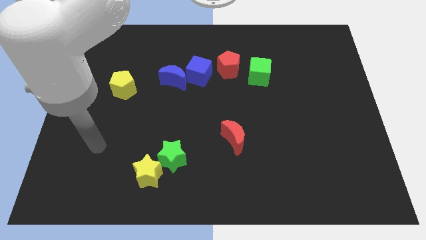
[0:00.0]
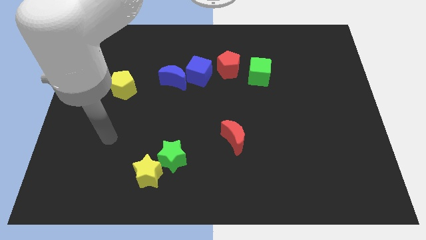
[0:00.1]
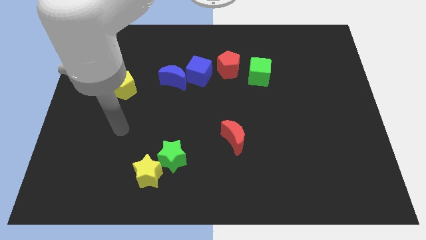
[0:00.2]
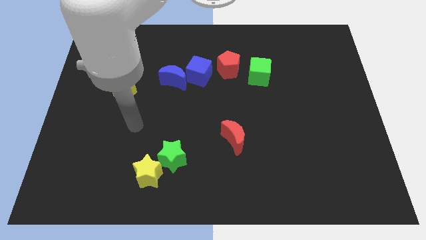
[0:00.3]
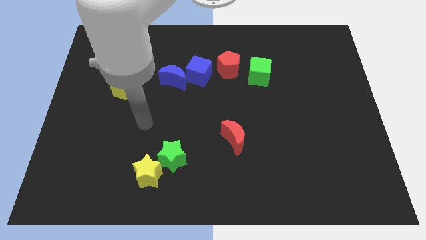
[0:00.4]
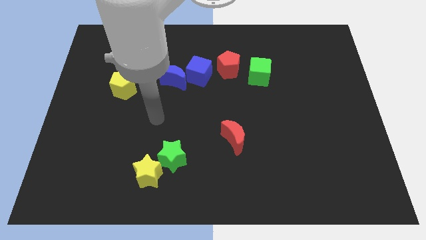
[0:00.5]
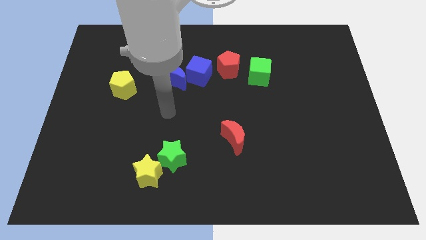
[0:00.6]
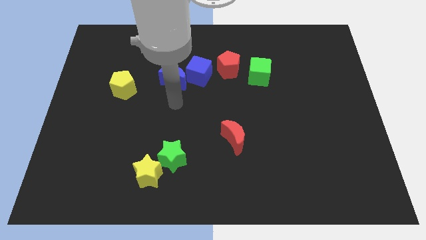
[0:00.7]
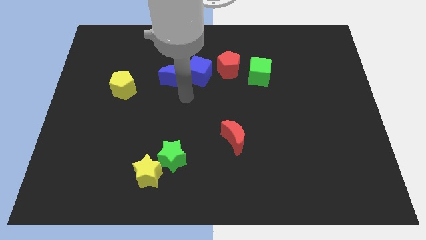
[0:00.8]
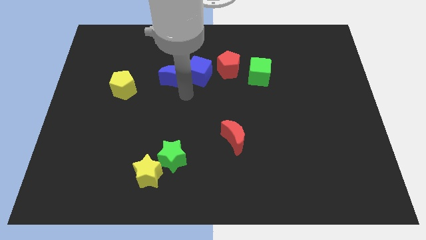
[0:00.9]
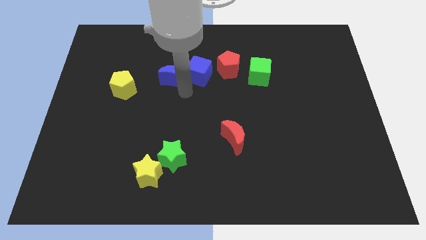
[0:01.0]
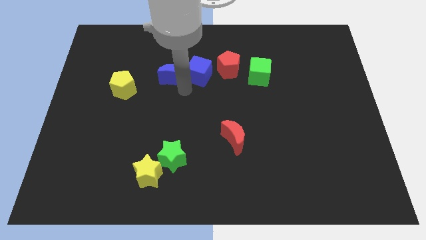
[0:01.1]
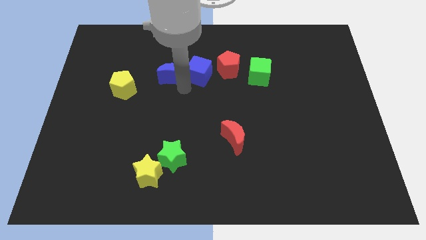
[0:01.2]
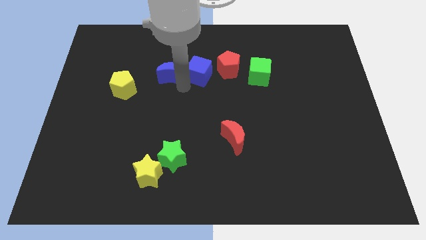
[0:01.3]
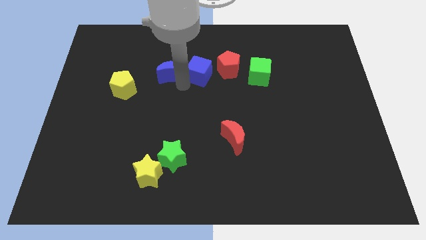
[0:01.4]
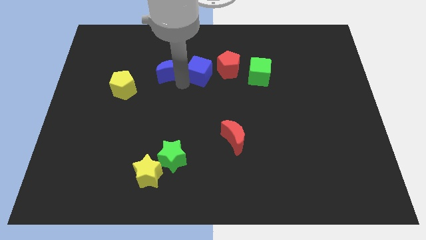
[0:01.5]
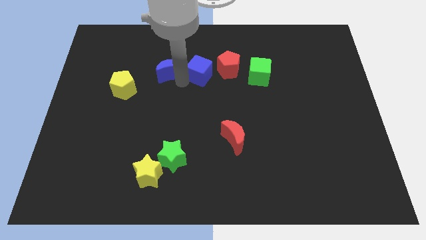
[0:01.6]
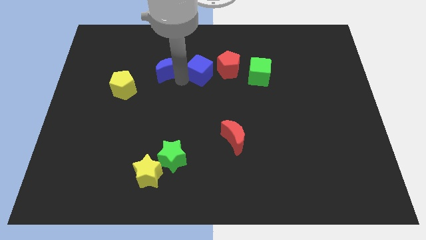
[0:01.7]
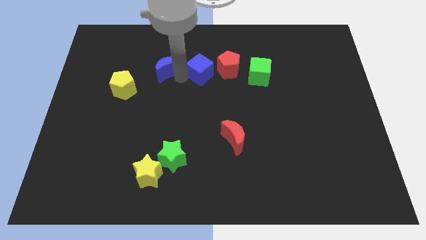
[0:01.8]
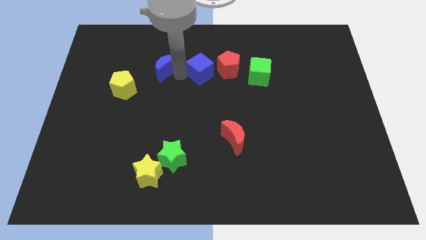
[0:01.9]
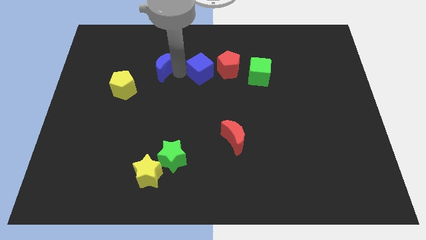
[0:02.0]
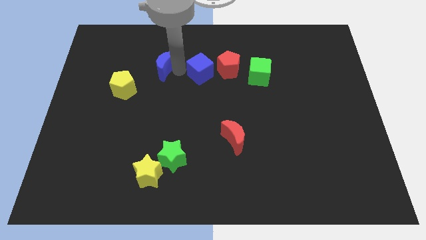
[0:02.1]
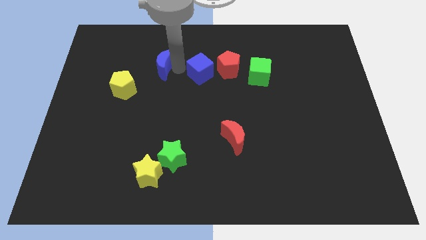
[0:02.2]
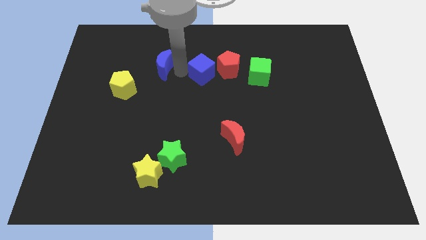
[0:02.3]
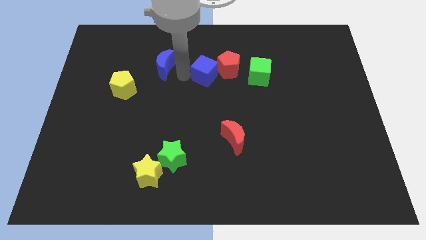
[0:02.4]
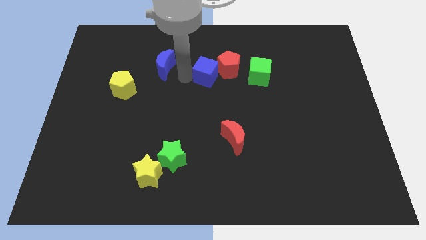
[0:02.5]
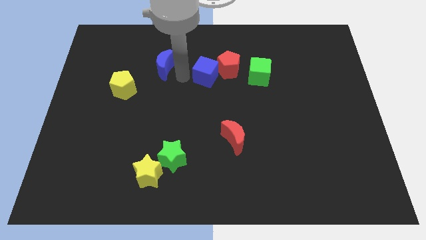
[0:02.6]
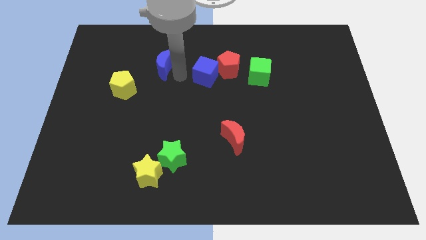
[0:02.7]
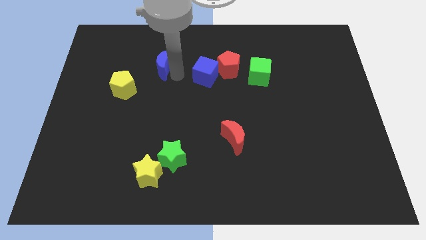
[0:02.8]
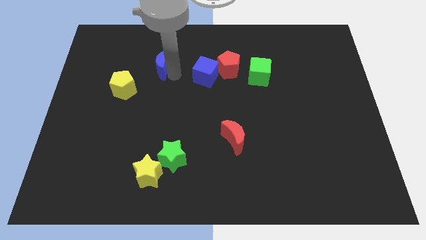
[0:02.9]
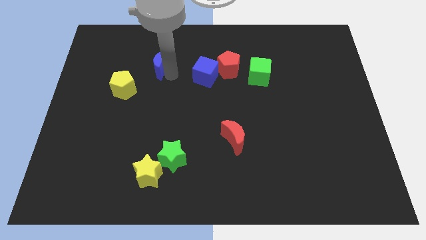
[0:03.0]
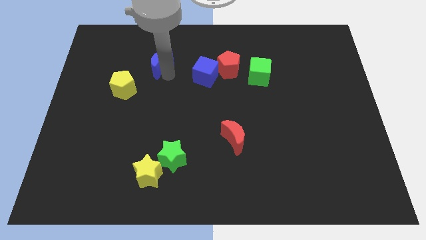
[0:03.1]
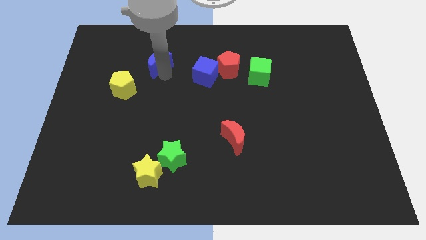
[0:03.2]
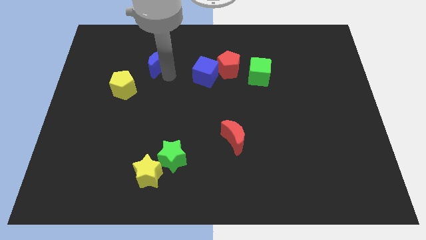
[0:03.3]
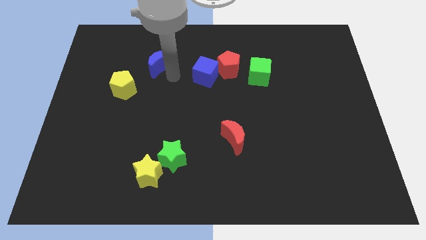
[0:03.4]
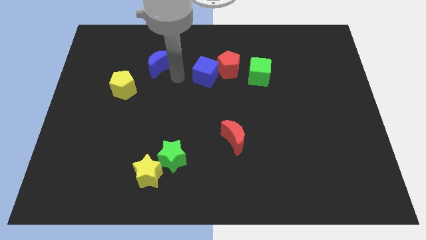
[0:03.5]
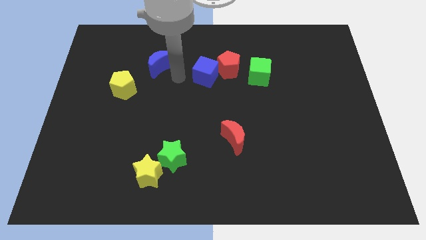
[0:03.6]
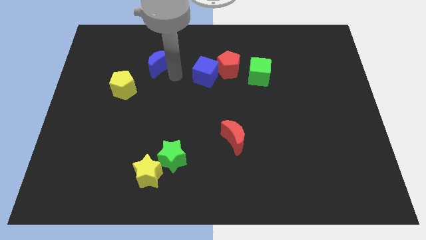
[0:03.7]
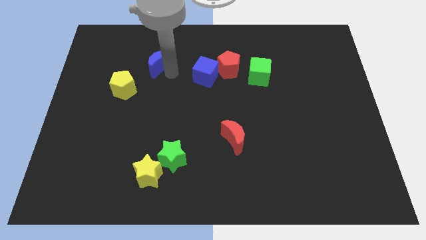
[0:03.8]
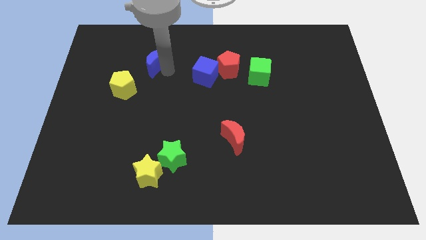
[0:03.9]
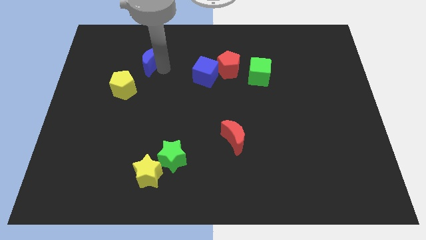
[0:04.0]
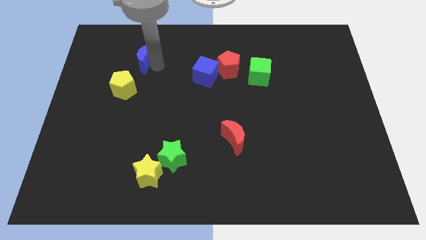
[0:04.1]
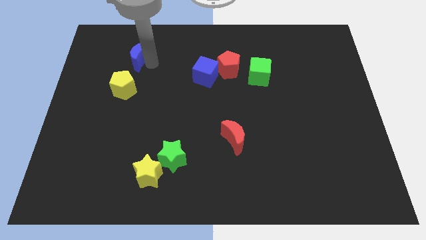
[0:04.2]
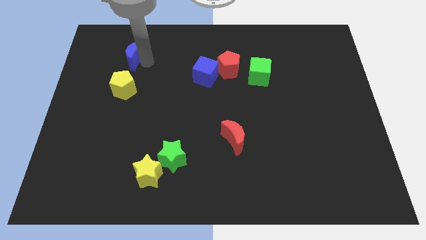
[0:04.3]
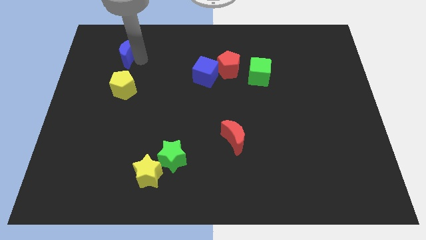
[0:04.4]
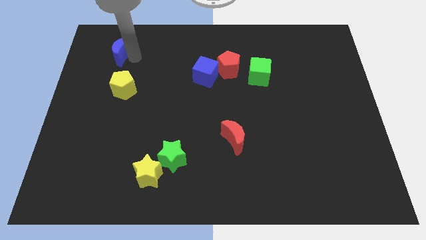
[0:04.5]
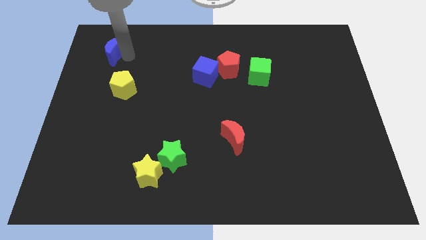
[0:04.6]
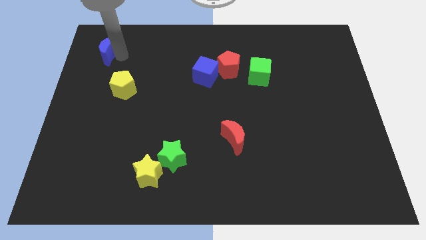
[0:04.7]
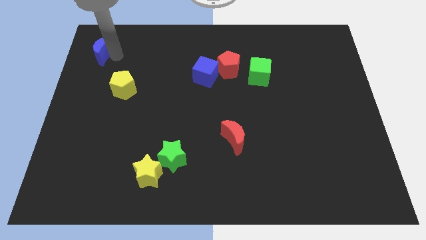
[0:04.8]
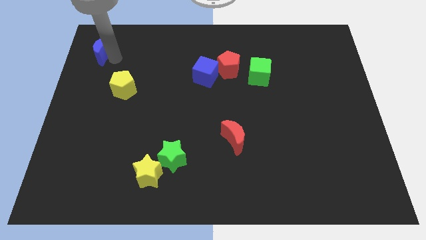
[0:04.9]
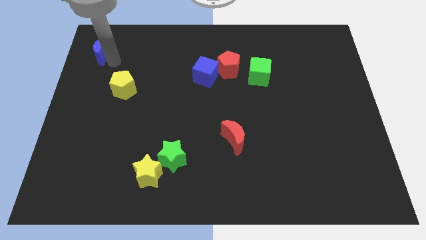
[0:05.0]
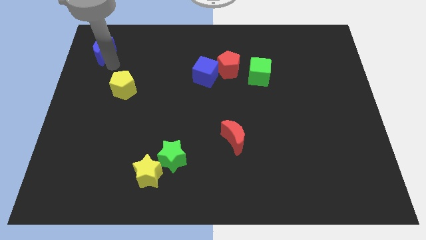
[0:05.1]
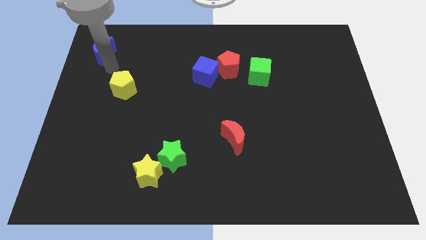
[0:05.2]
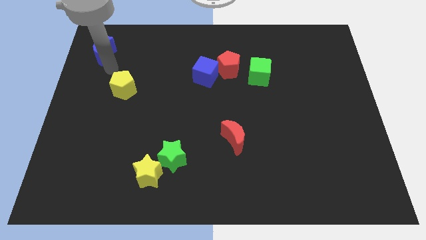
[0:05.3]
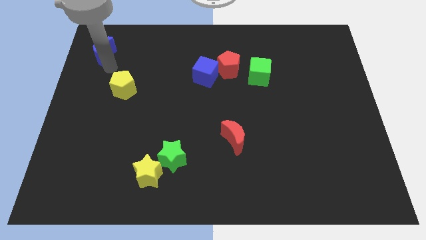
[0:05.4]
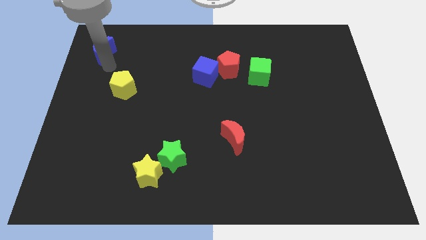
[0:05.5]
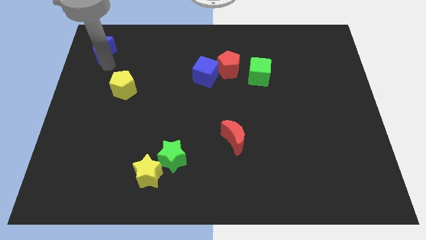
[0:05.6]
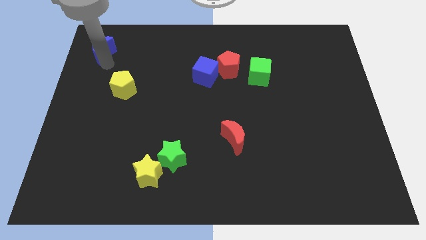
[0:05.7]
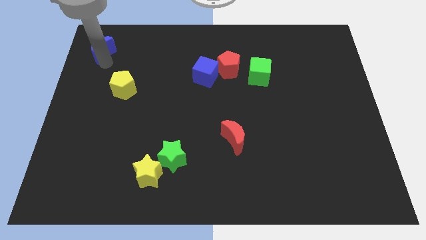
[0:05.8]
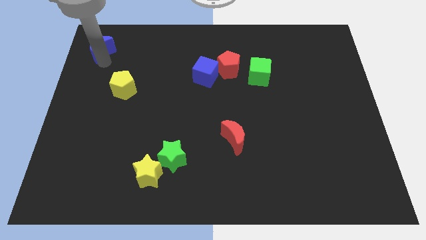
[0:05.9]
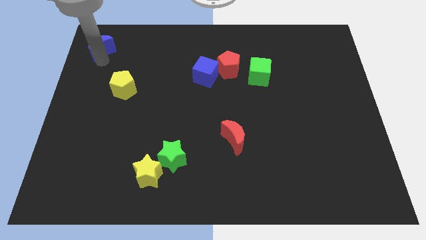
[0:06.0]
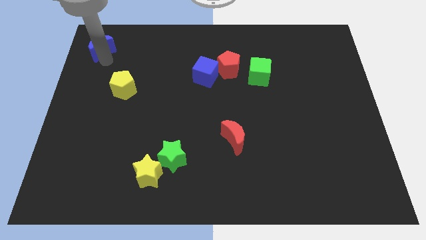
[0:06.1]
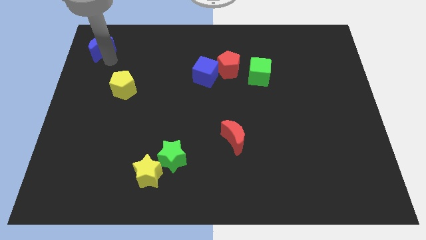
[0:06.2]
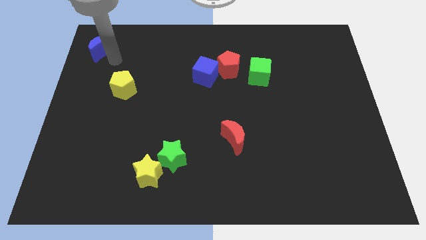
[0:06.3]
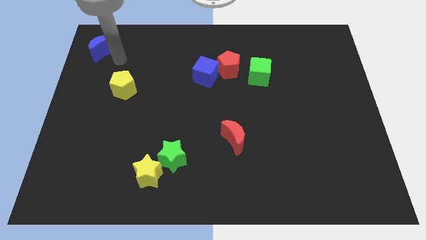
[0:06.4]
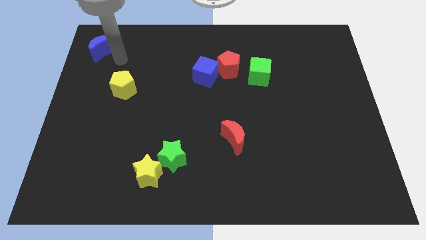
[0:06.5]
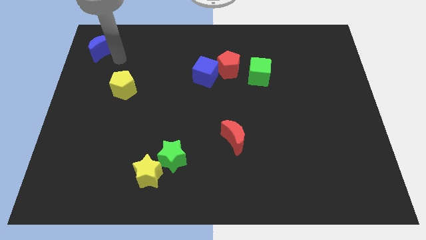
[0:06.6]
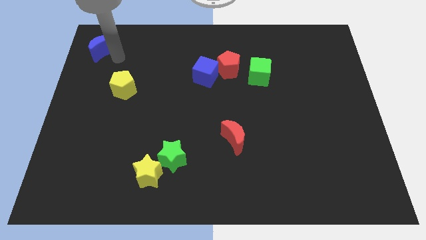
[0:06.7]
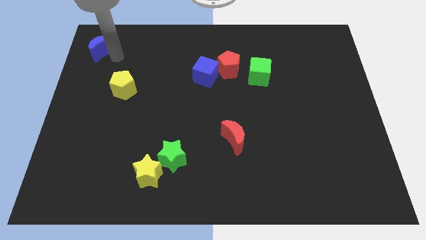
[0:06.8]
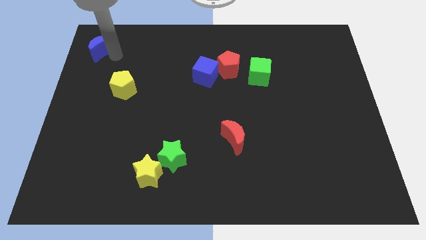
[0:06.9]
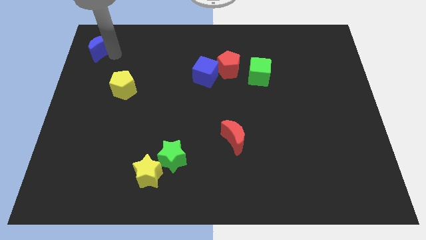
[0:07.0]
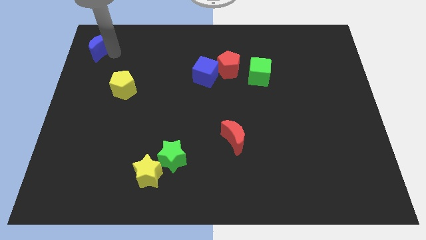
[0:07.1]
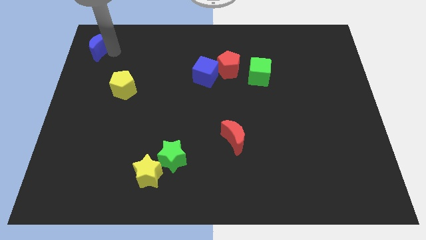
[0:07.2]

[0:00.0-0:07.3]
put the blue moon to the top left corner
